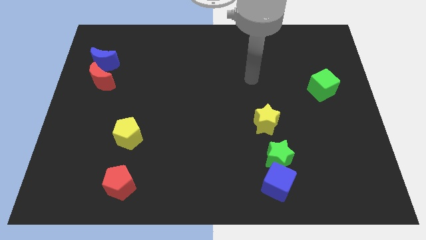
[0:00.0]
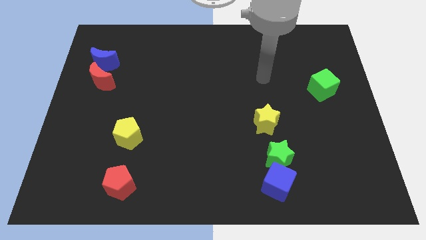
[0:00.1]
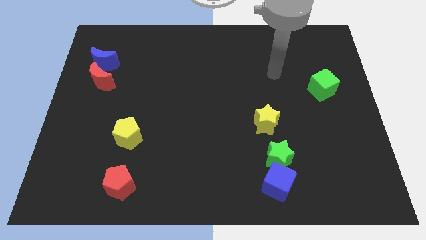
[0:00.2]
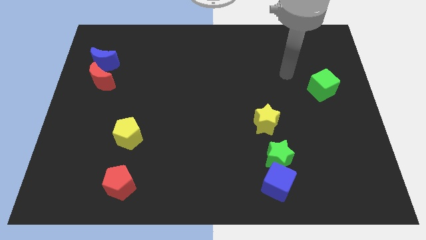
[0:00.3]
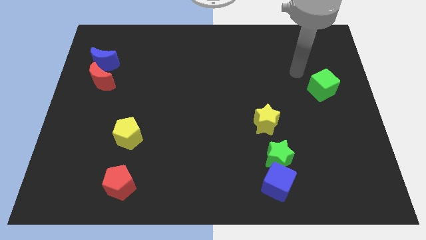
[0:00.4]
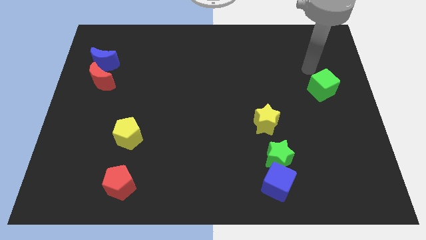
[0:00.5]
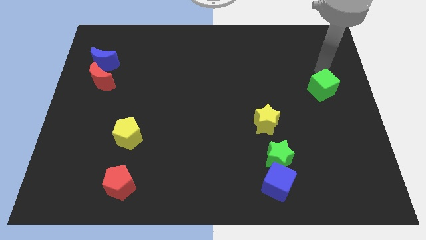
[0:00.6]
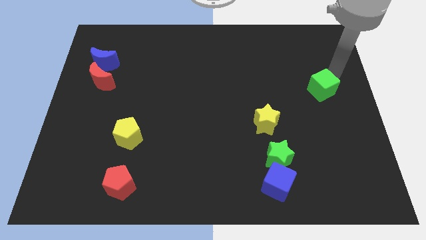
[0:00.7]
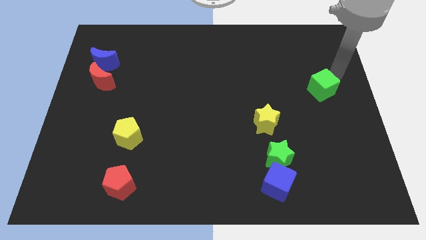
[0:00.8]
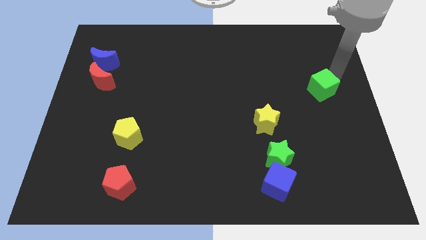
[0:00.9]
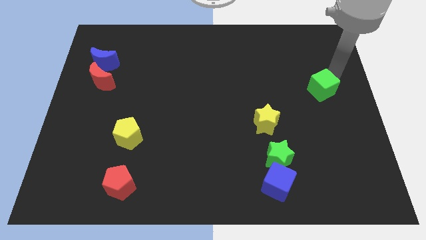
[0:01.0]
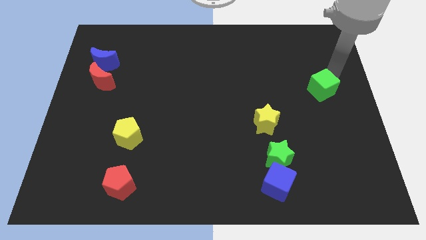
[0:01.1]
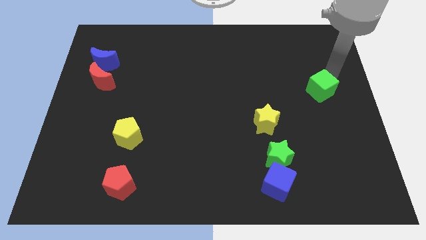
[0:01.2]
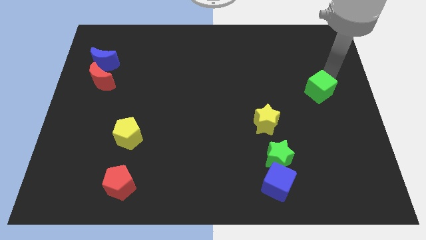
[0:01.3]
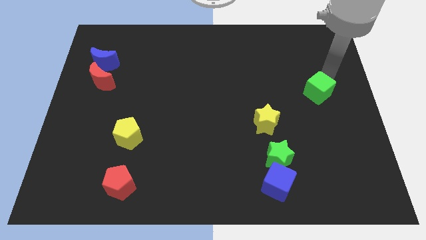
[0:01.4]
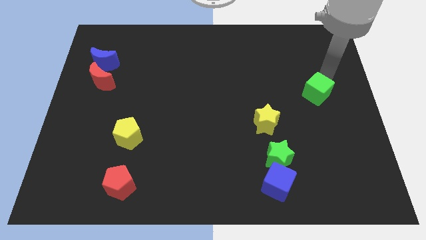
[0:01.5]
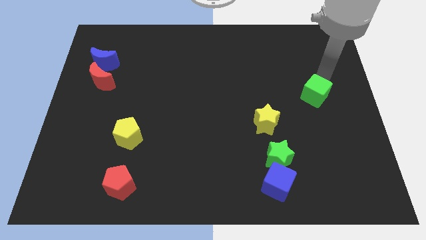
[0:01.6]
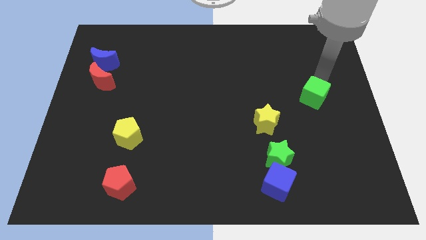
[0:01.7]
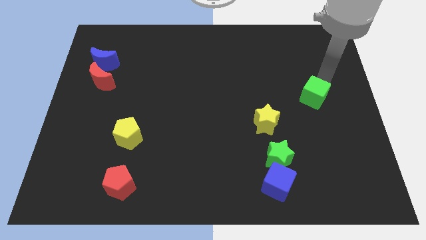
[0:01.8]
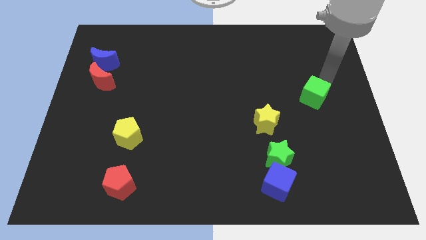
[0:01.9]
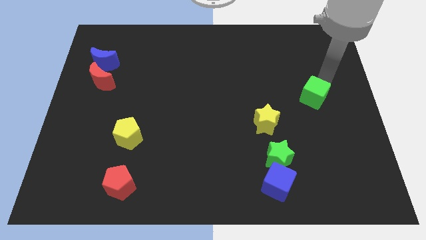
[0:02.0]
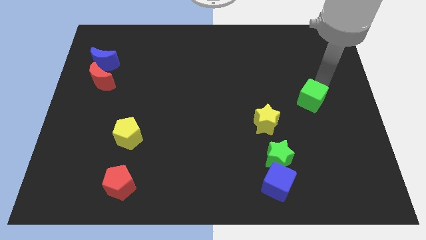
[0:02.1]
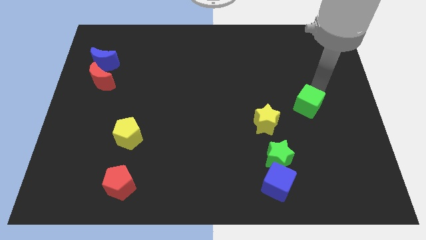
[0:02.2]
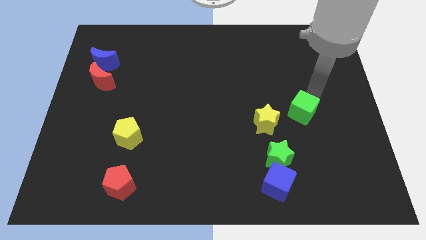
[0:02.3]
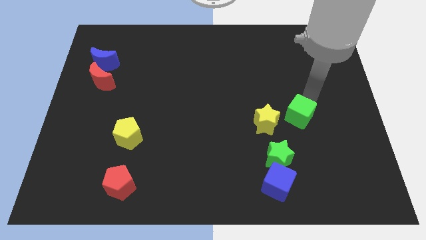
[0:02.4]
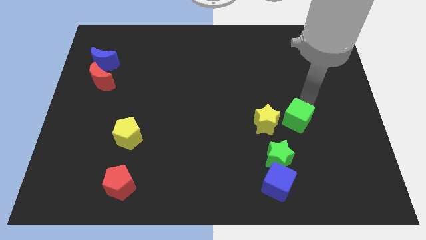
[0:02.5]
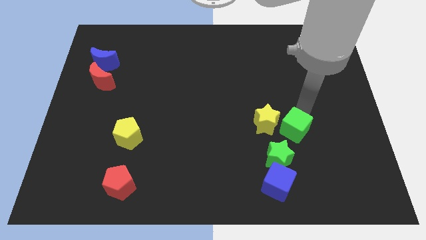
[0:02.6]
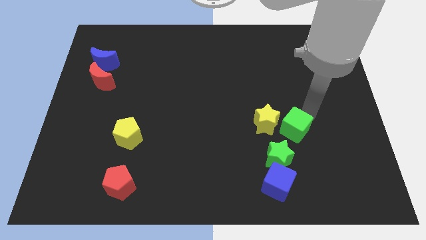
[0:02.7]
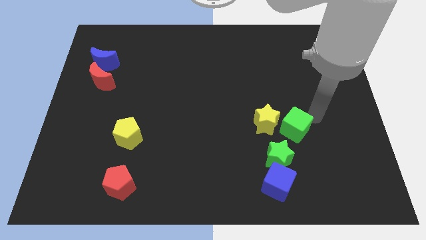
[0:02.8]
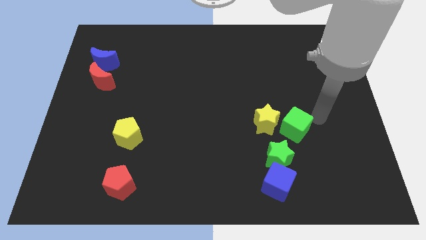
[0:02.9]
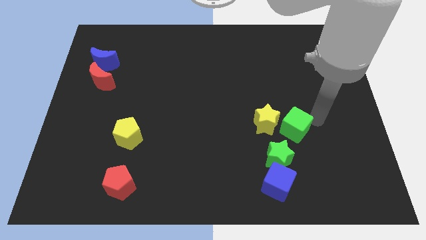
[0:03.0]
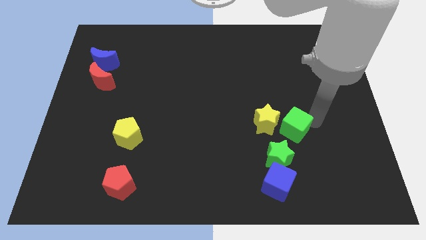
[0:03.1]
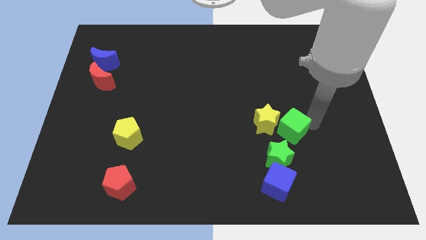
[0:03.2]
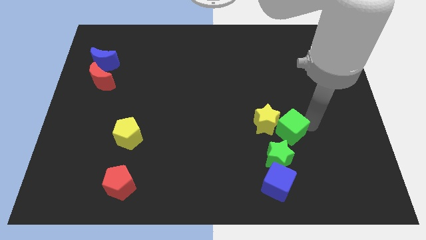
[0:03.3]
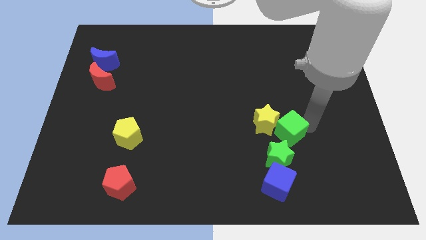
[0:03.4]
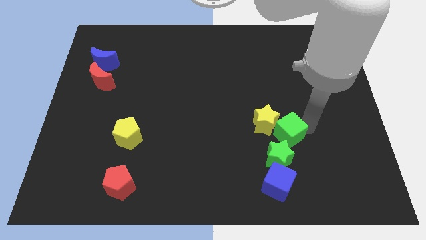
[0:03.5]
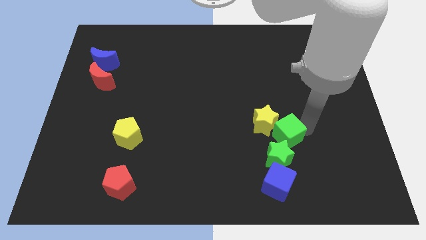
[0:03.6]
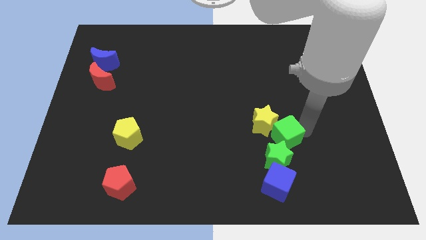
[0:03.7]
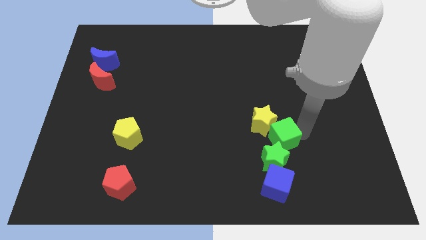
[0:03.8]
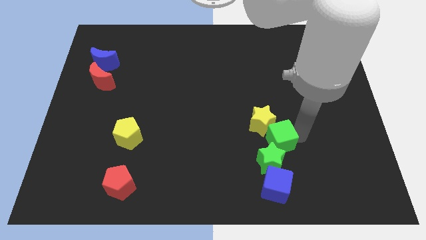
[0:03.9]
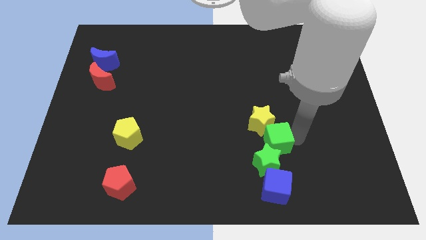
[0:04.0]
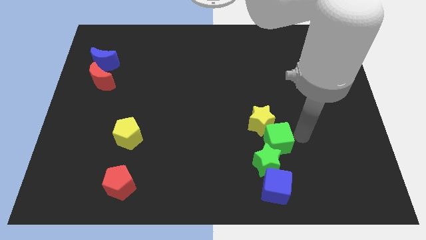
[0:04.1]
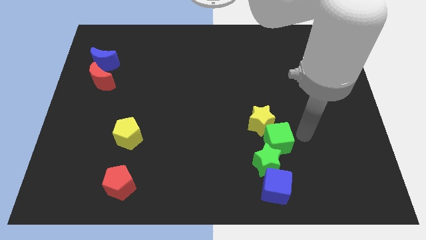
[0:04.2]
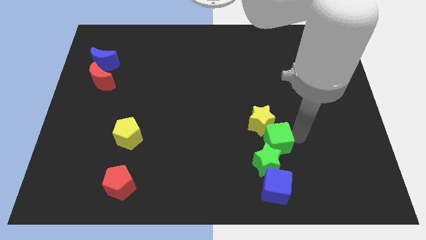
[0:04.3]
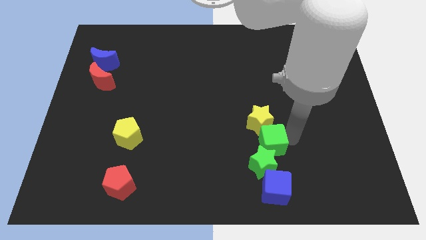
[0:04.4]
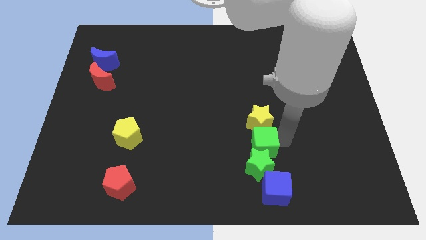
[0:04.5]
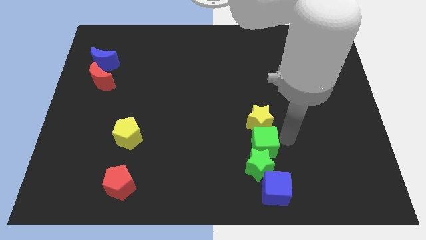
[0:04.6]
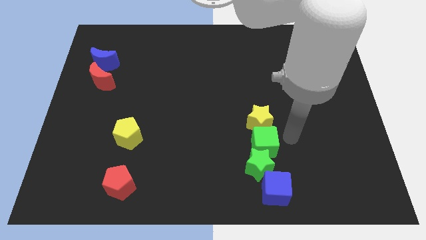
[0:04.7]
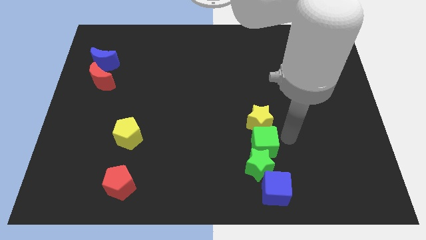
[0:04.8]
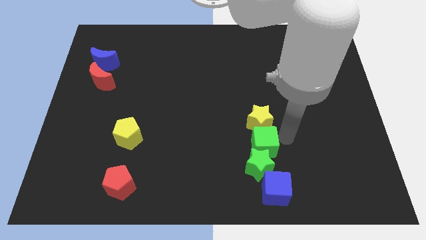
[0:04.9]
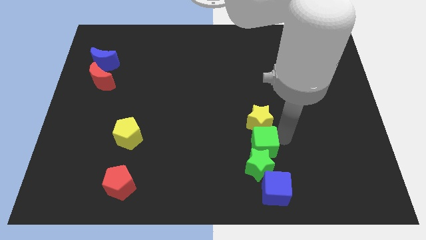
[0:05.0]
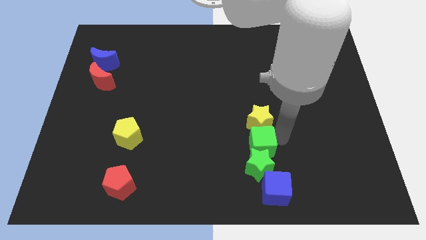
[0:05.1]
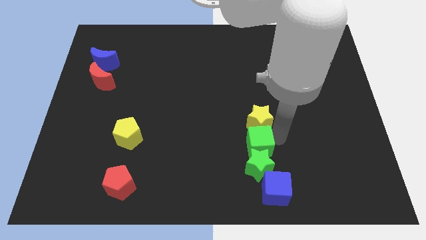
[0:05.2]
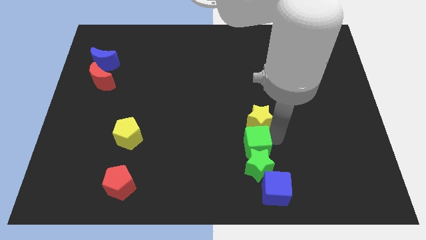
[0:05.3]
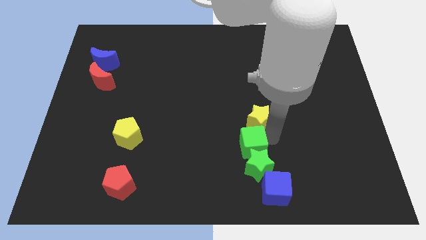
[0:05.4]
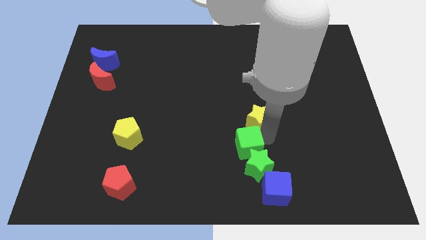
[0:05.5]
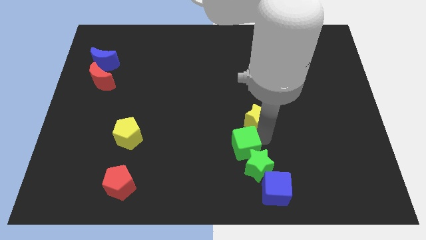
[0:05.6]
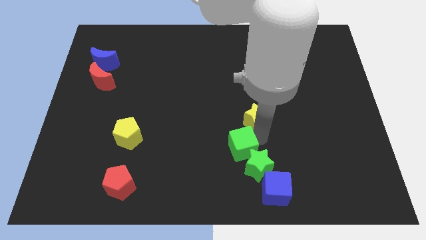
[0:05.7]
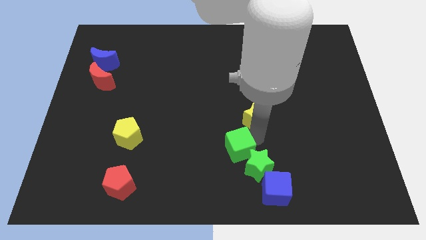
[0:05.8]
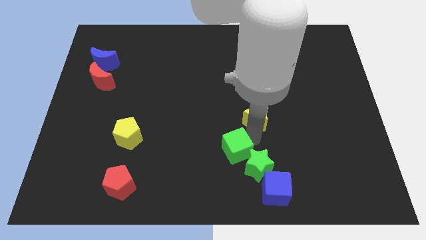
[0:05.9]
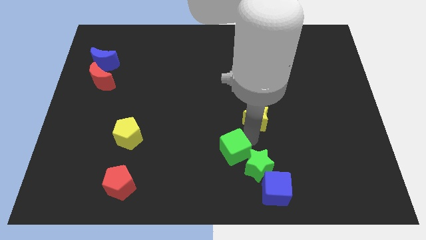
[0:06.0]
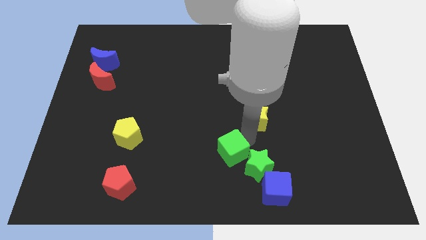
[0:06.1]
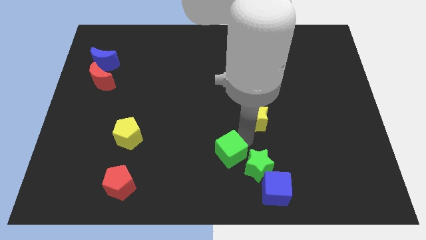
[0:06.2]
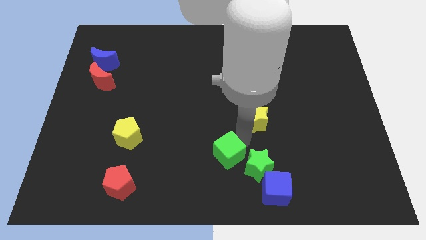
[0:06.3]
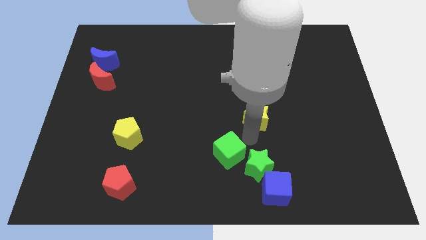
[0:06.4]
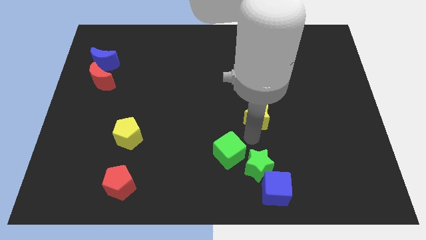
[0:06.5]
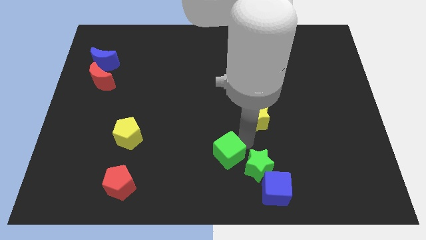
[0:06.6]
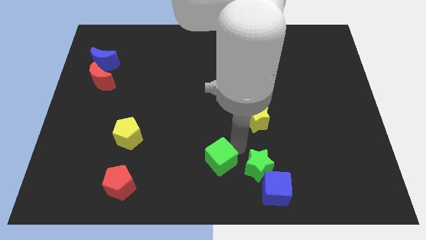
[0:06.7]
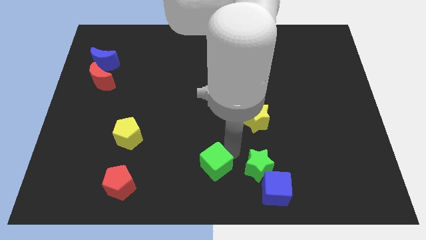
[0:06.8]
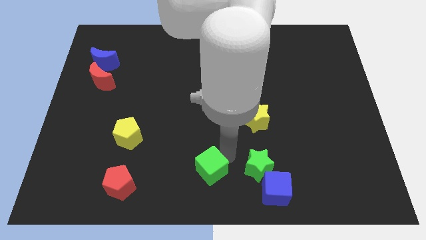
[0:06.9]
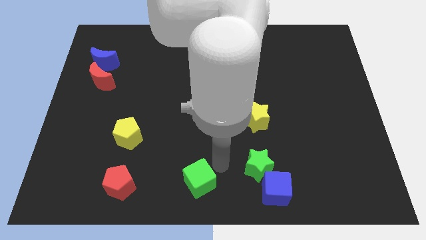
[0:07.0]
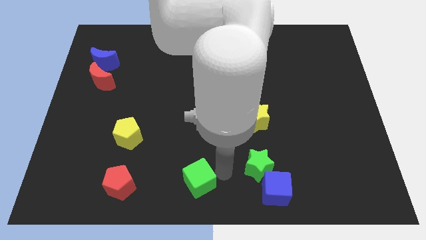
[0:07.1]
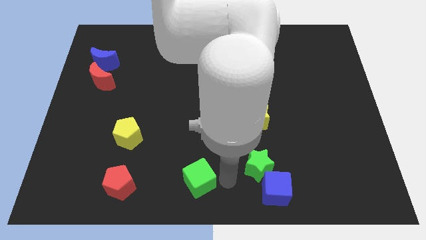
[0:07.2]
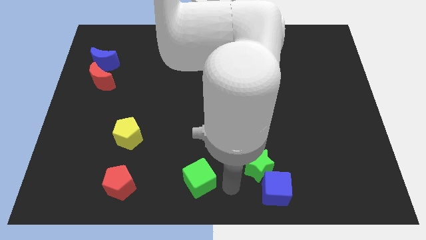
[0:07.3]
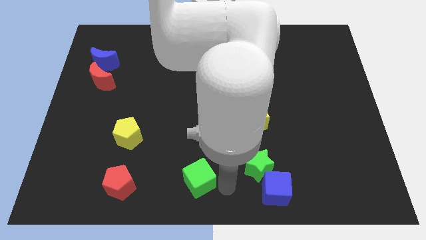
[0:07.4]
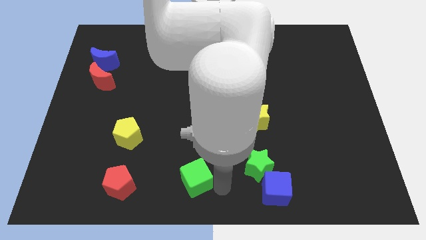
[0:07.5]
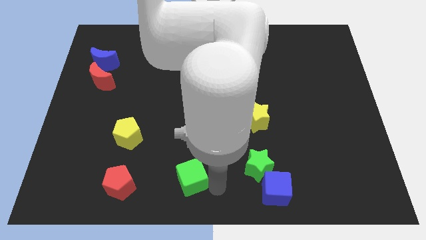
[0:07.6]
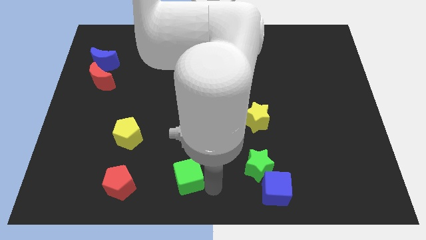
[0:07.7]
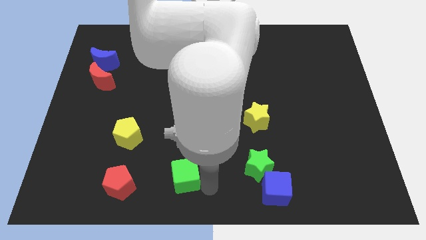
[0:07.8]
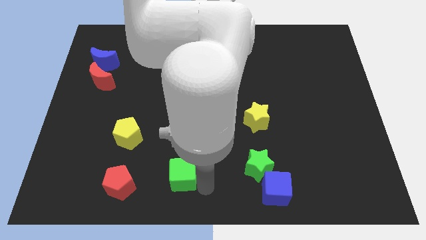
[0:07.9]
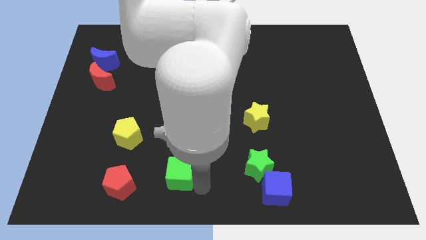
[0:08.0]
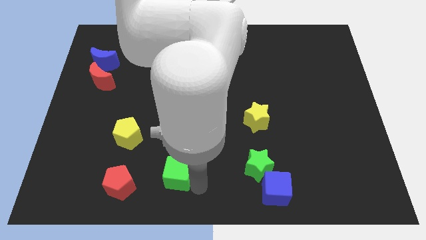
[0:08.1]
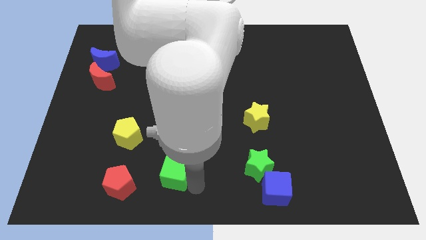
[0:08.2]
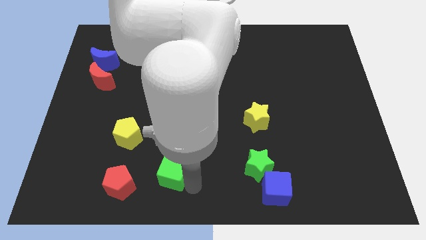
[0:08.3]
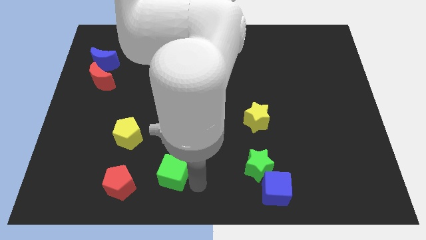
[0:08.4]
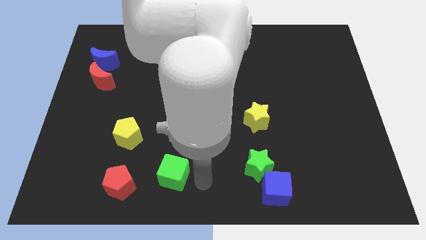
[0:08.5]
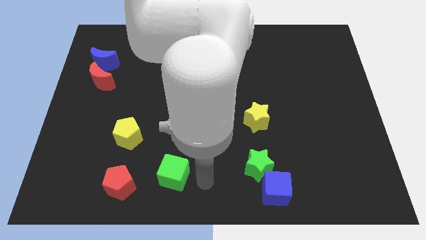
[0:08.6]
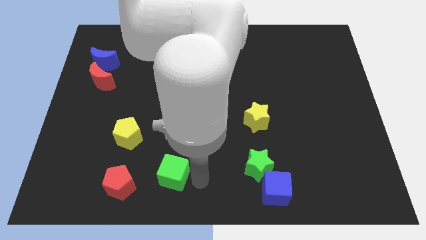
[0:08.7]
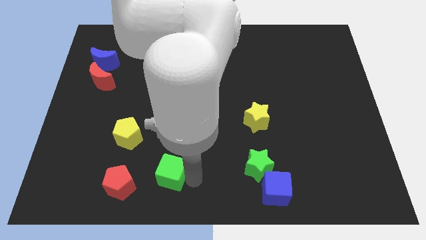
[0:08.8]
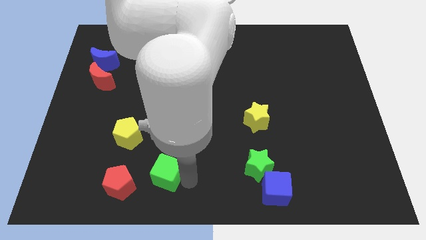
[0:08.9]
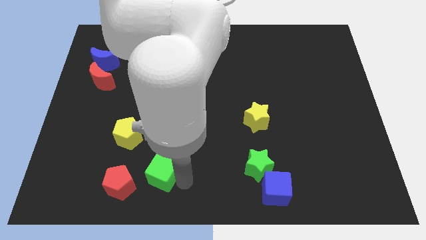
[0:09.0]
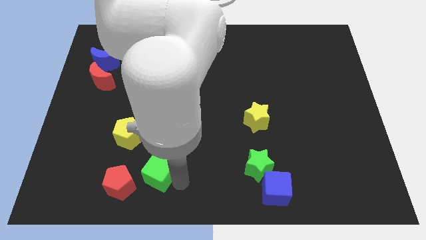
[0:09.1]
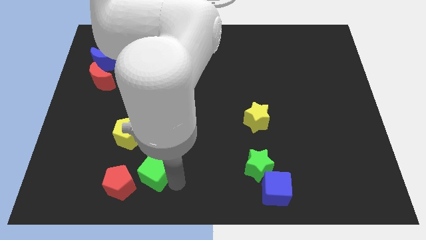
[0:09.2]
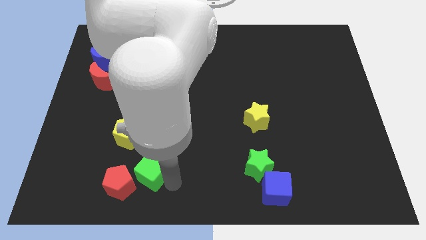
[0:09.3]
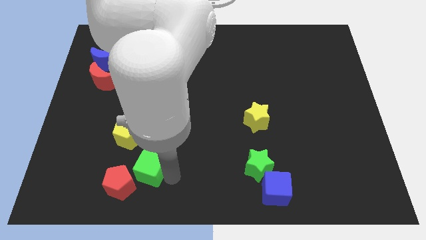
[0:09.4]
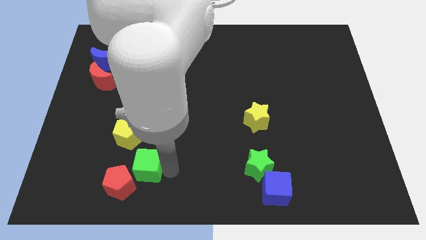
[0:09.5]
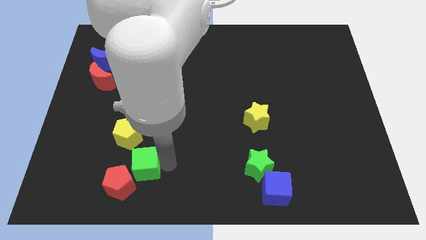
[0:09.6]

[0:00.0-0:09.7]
move the green cube below the yellow pentagon
